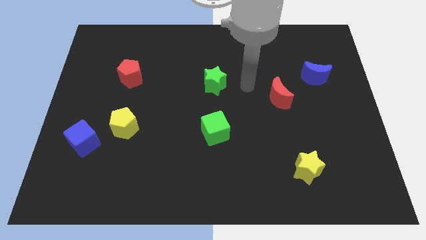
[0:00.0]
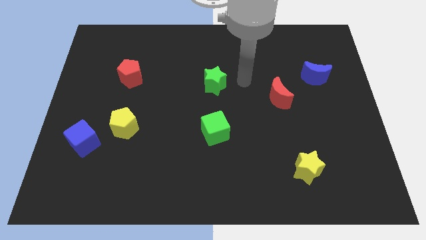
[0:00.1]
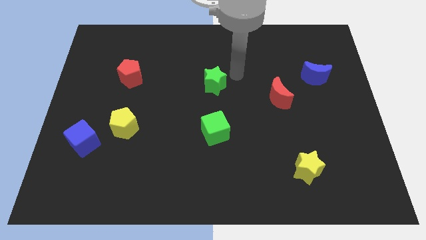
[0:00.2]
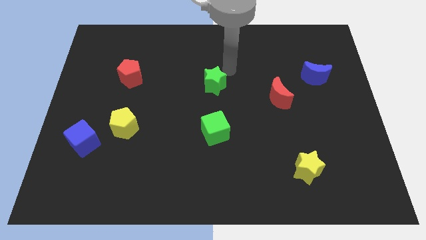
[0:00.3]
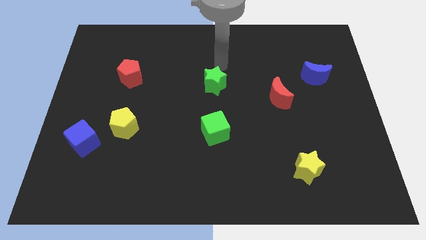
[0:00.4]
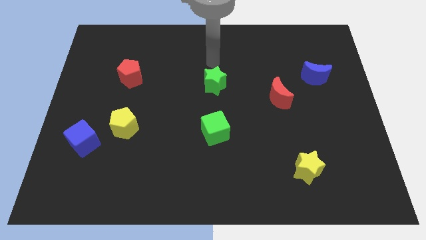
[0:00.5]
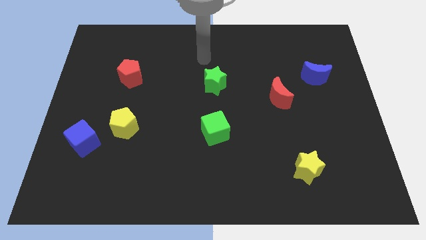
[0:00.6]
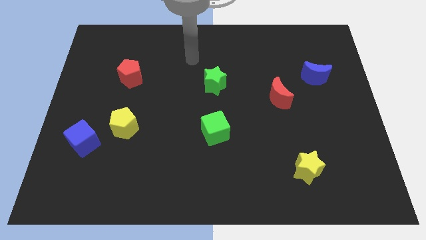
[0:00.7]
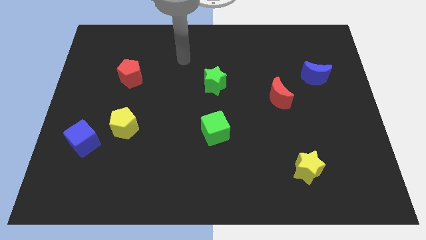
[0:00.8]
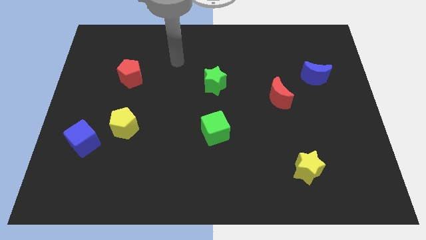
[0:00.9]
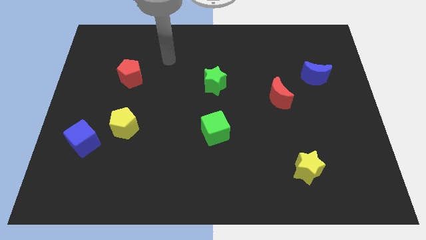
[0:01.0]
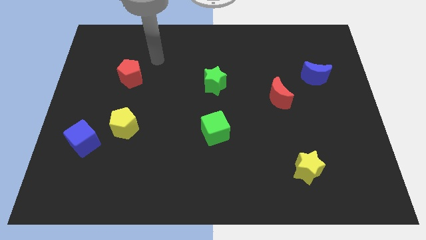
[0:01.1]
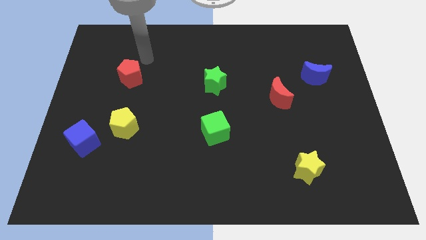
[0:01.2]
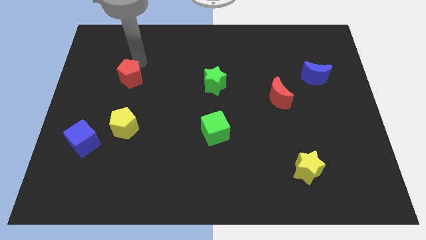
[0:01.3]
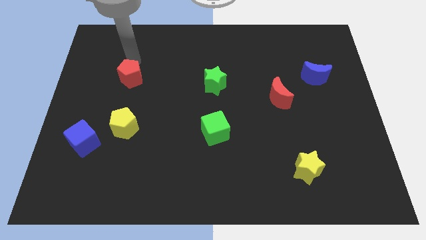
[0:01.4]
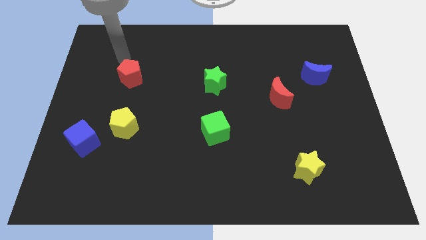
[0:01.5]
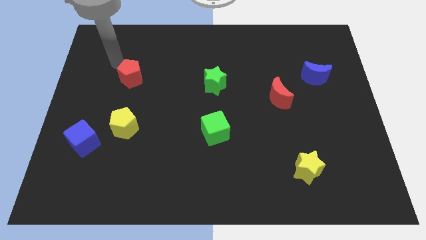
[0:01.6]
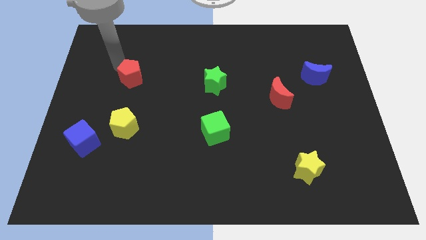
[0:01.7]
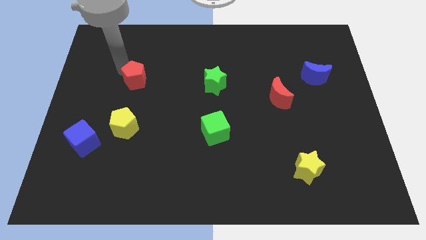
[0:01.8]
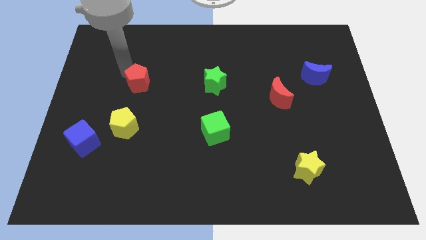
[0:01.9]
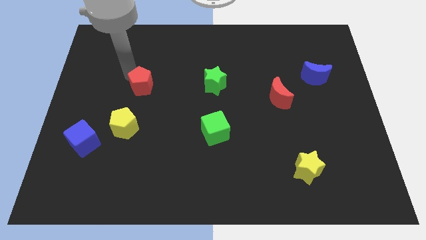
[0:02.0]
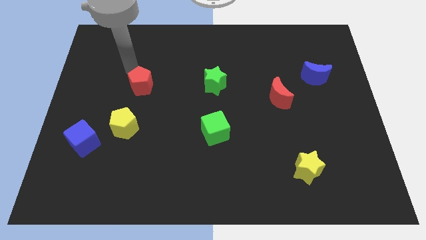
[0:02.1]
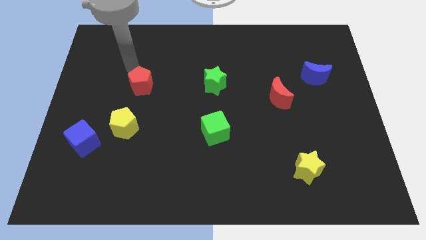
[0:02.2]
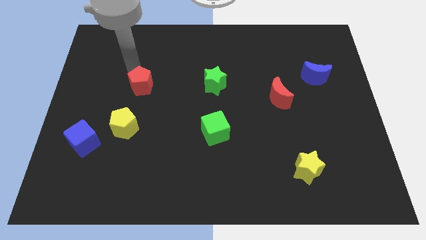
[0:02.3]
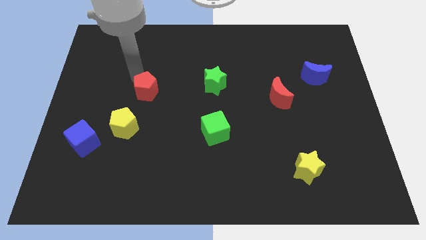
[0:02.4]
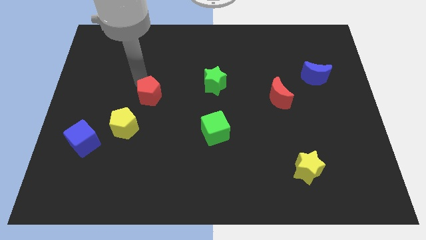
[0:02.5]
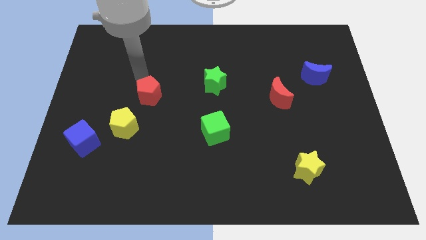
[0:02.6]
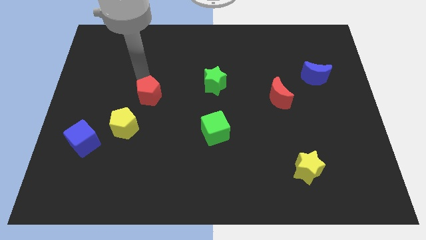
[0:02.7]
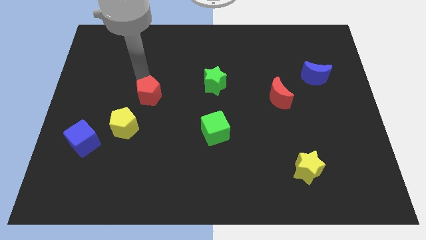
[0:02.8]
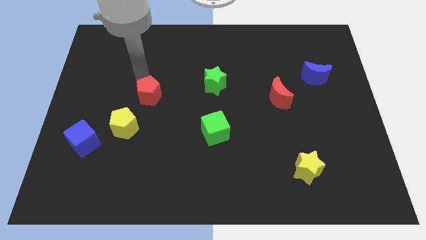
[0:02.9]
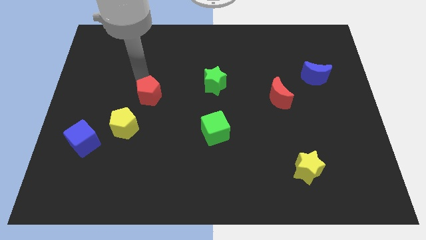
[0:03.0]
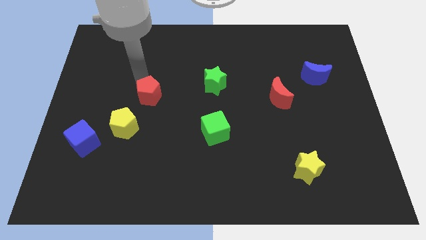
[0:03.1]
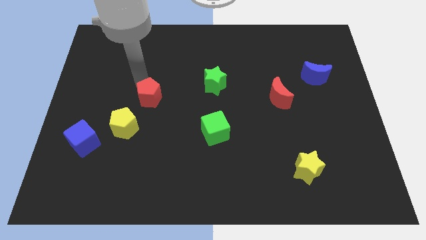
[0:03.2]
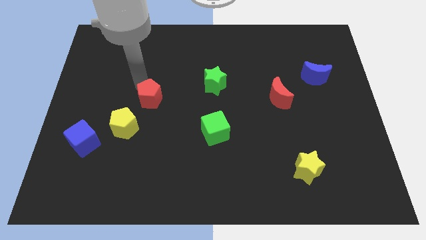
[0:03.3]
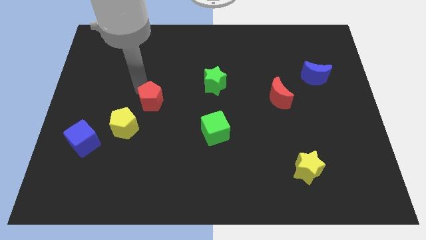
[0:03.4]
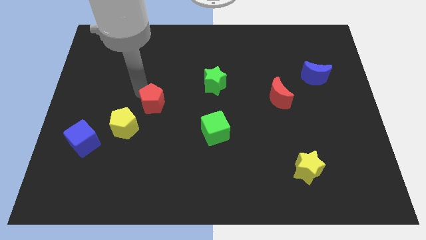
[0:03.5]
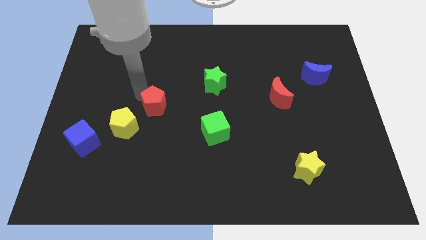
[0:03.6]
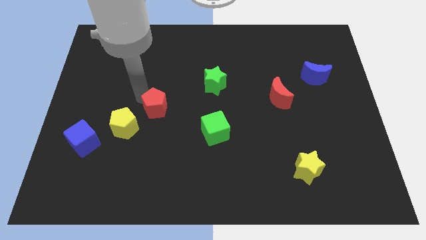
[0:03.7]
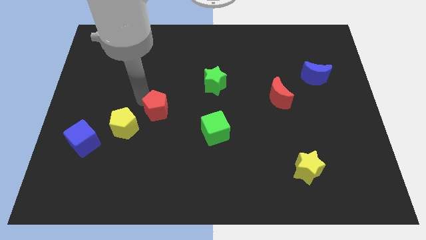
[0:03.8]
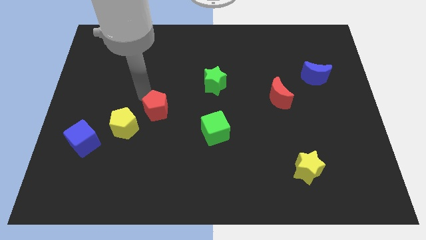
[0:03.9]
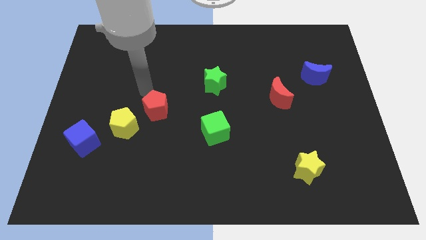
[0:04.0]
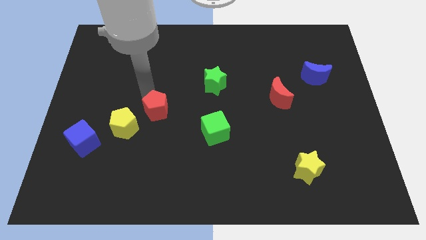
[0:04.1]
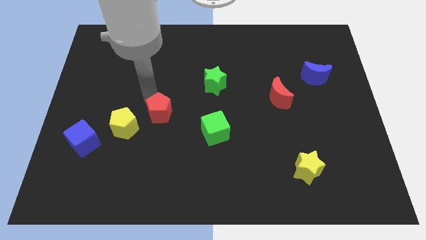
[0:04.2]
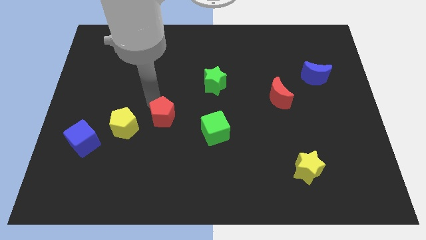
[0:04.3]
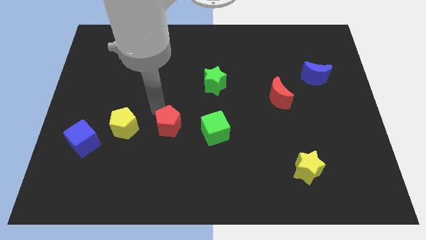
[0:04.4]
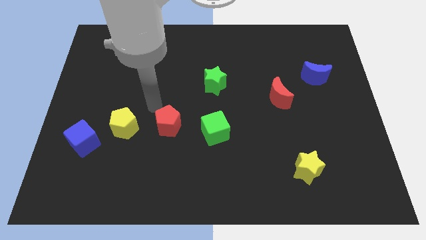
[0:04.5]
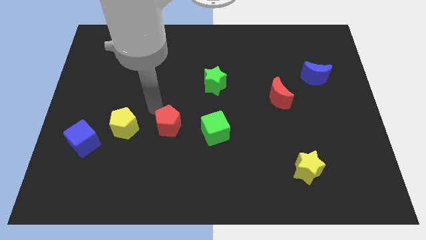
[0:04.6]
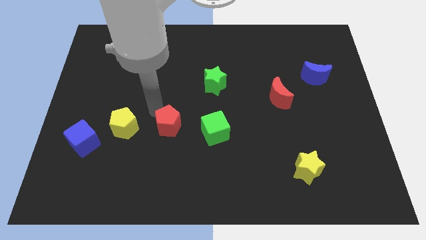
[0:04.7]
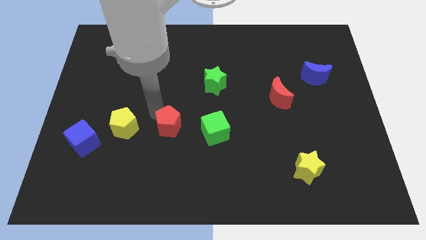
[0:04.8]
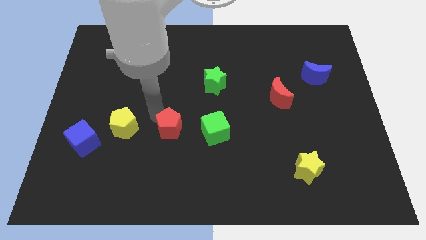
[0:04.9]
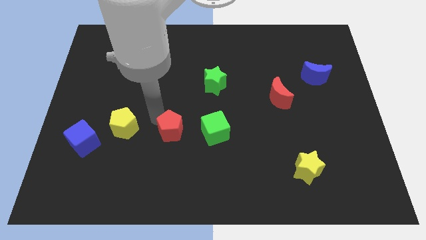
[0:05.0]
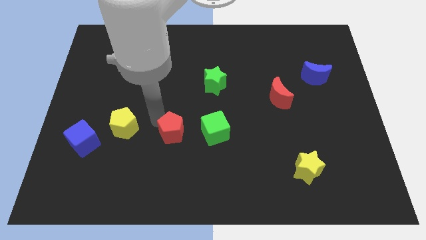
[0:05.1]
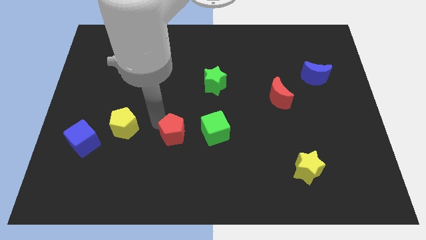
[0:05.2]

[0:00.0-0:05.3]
push the red pentagon downwards and right diagonally

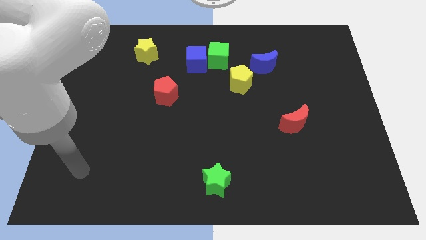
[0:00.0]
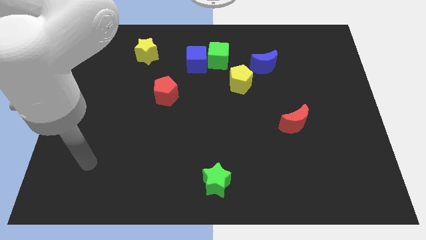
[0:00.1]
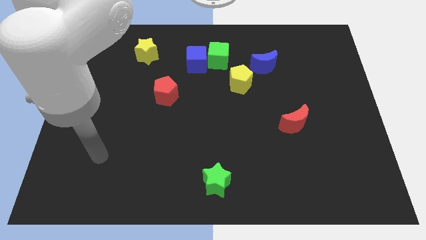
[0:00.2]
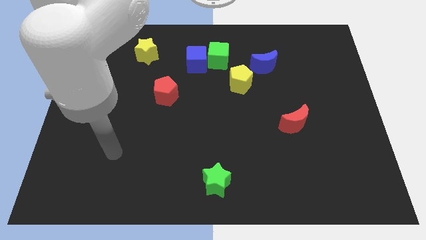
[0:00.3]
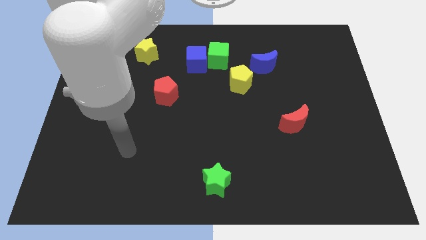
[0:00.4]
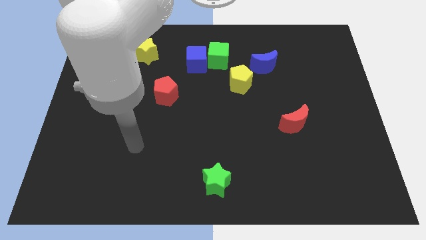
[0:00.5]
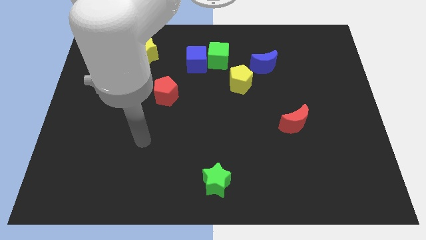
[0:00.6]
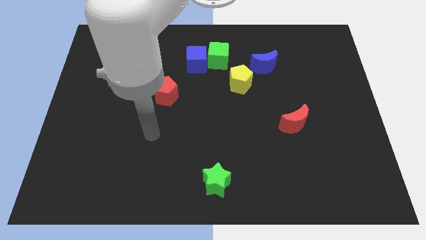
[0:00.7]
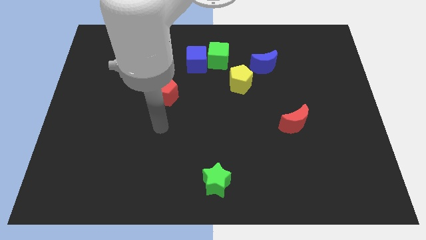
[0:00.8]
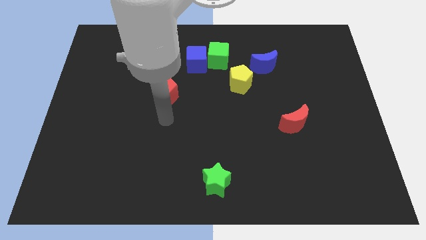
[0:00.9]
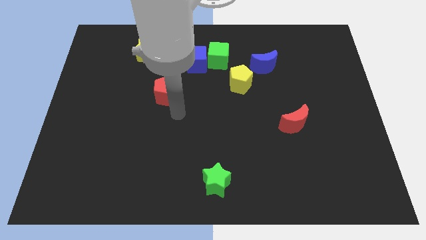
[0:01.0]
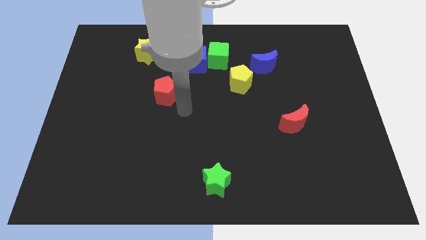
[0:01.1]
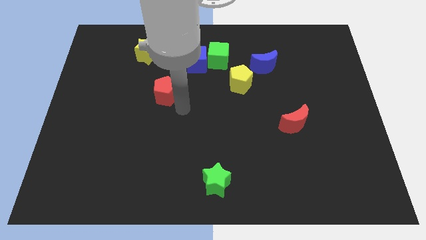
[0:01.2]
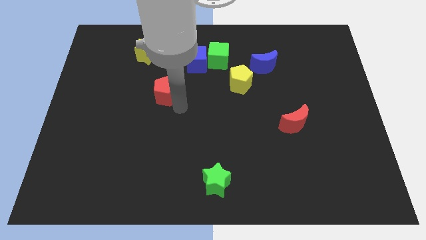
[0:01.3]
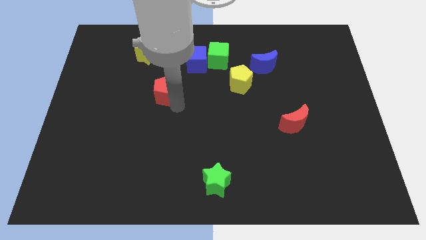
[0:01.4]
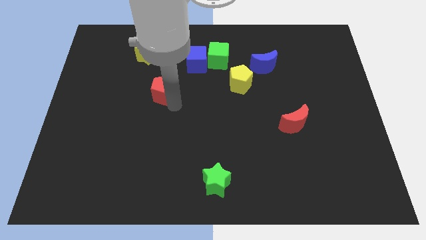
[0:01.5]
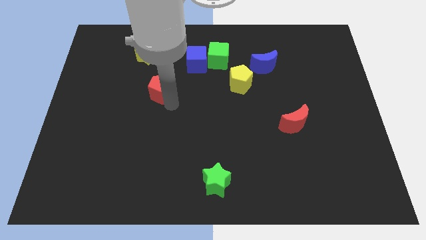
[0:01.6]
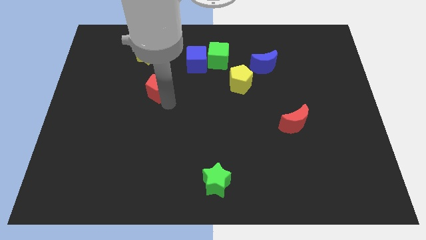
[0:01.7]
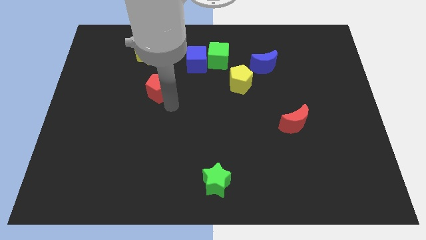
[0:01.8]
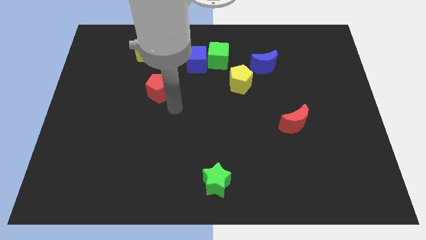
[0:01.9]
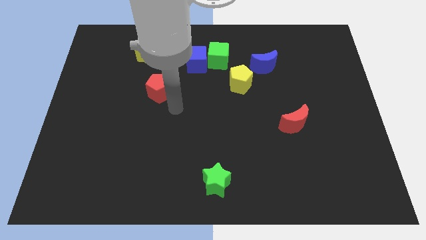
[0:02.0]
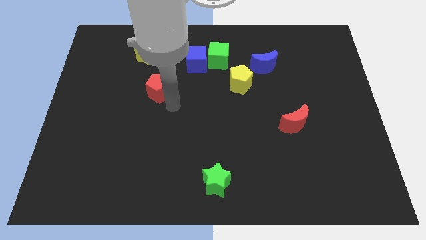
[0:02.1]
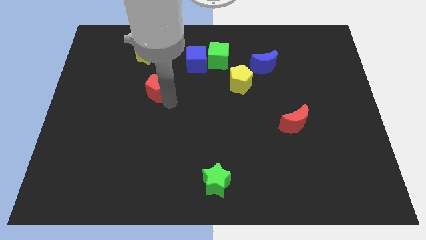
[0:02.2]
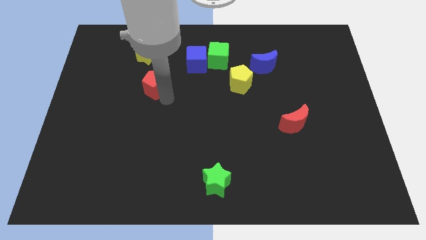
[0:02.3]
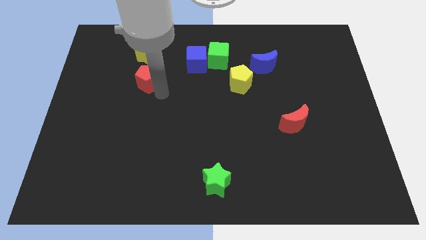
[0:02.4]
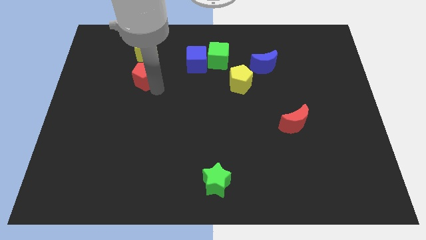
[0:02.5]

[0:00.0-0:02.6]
slide the red pentagon upwards and to the left diagonally somewhat
